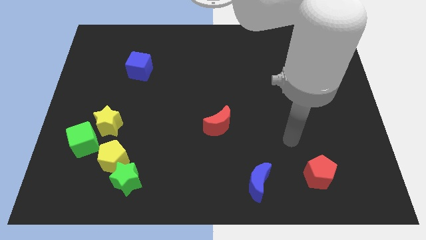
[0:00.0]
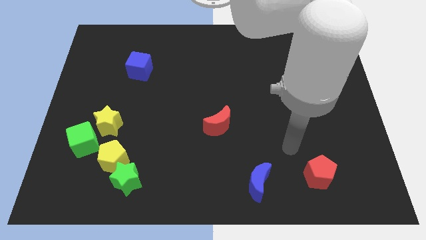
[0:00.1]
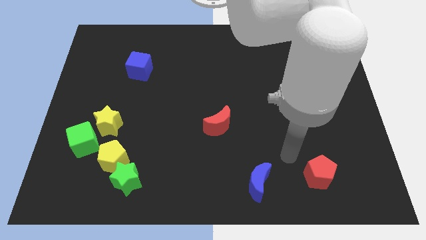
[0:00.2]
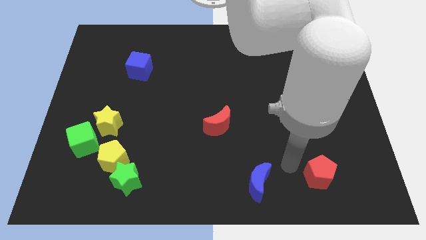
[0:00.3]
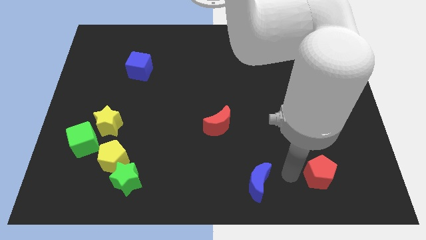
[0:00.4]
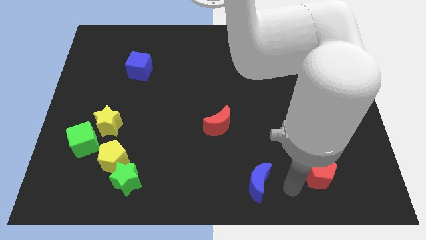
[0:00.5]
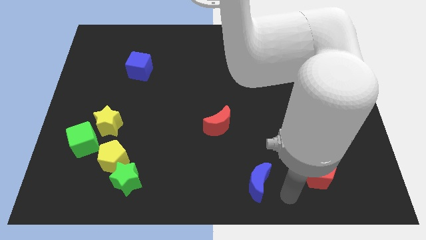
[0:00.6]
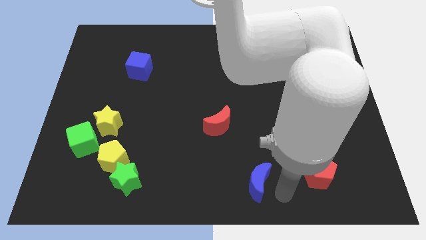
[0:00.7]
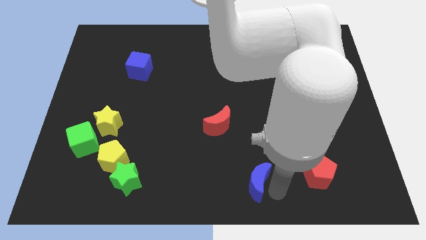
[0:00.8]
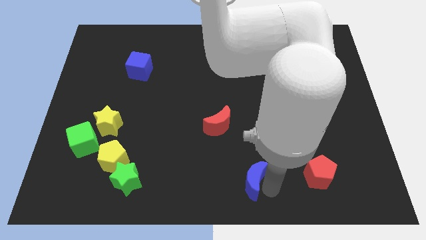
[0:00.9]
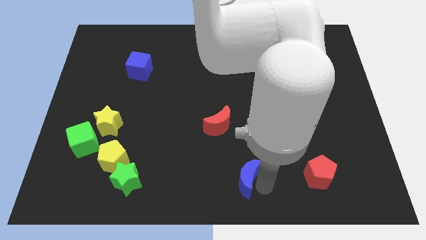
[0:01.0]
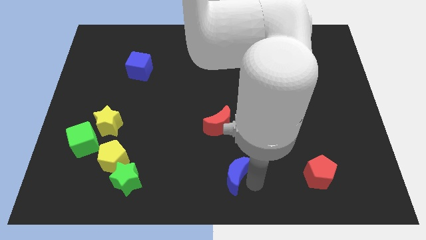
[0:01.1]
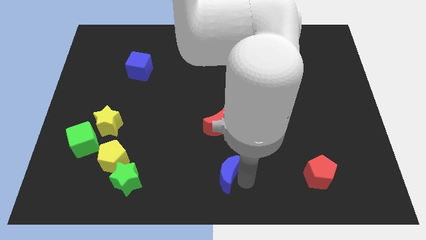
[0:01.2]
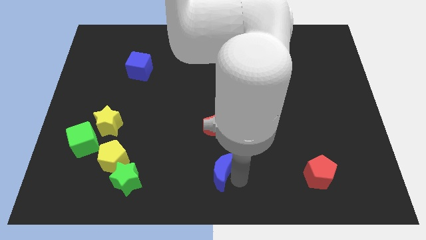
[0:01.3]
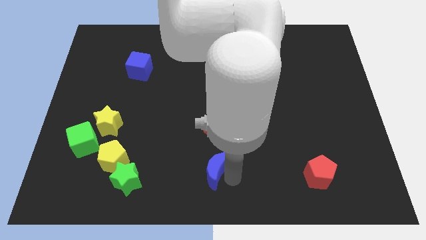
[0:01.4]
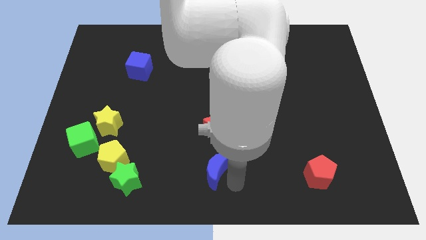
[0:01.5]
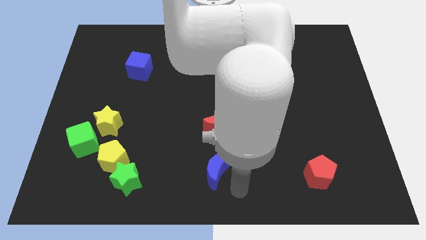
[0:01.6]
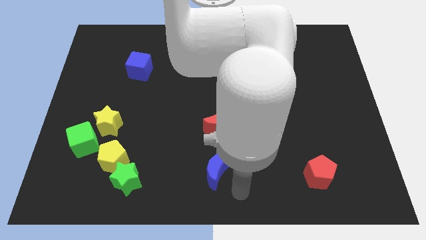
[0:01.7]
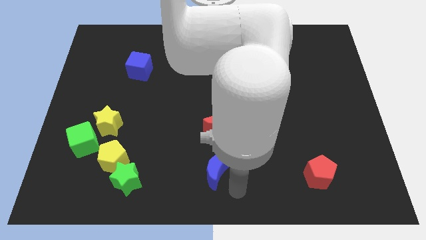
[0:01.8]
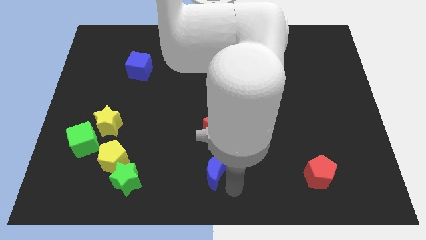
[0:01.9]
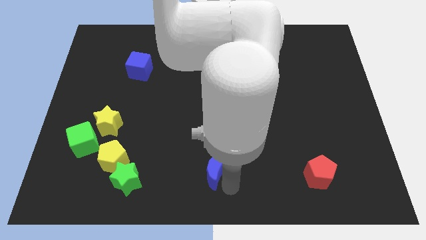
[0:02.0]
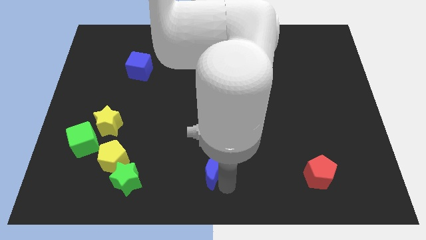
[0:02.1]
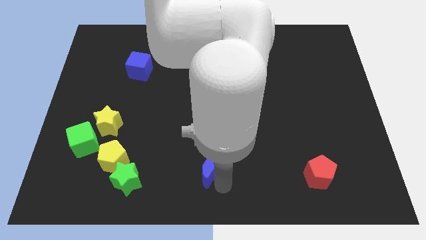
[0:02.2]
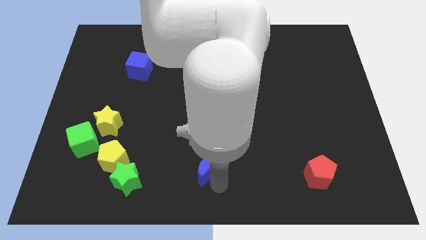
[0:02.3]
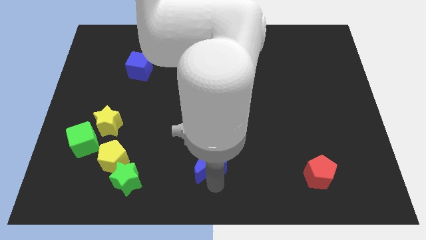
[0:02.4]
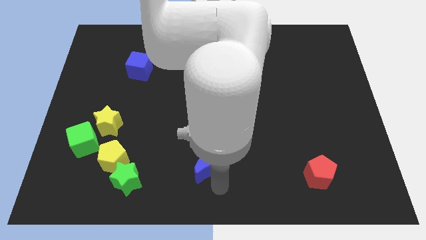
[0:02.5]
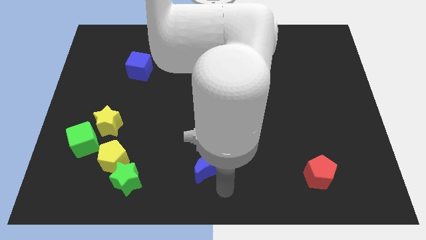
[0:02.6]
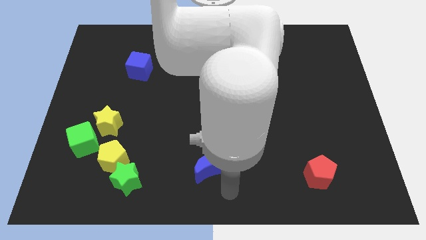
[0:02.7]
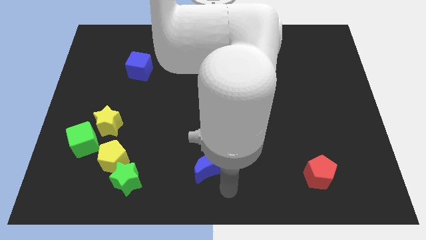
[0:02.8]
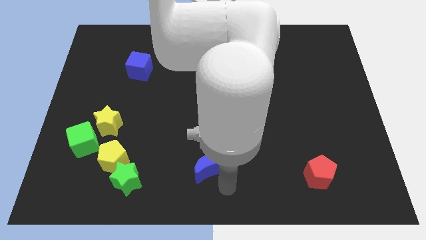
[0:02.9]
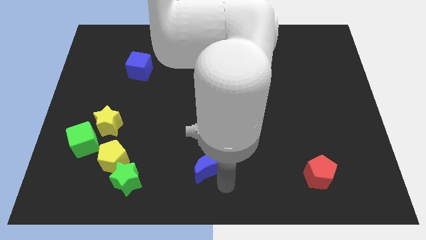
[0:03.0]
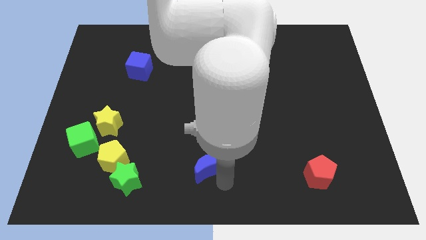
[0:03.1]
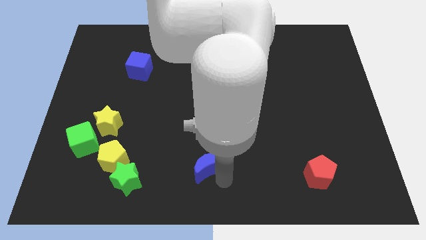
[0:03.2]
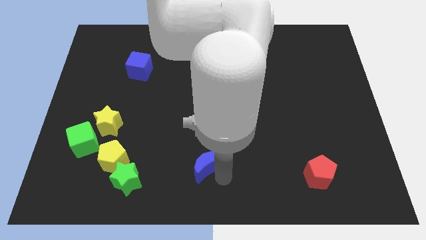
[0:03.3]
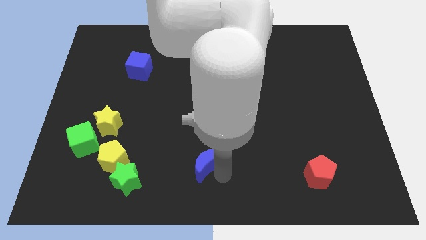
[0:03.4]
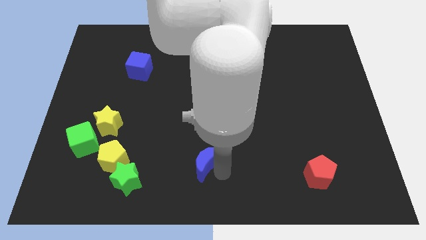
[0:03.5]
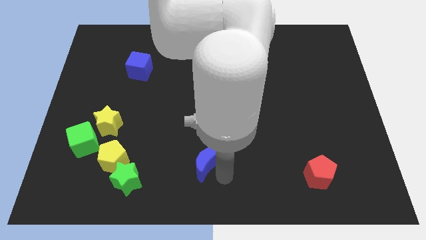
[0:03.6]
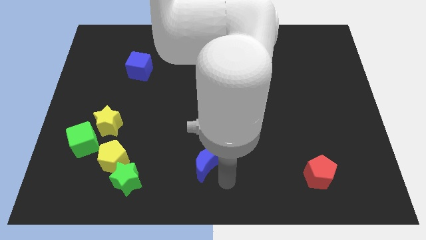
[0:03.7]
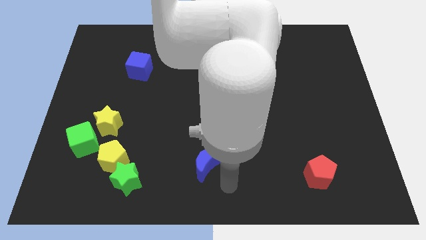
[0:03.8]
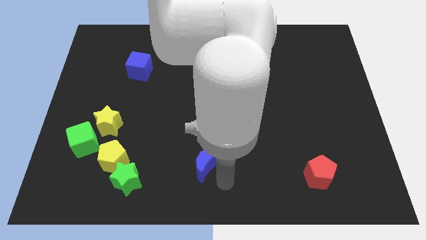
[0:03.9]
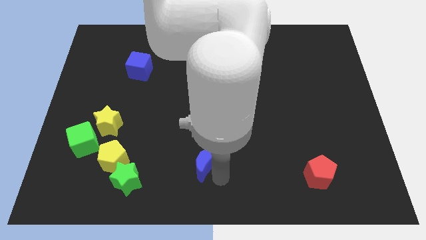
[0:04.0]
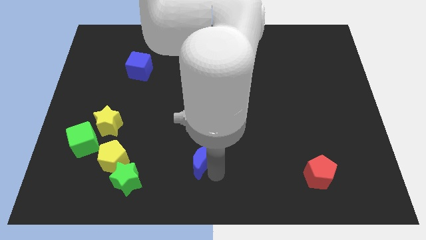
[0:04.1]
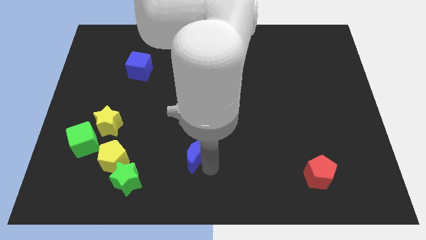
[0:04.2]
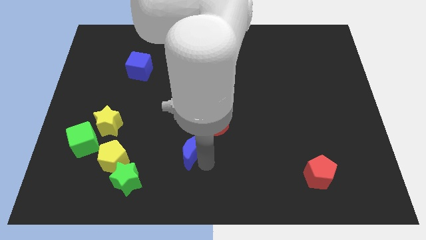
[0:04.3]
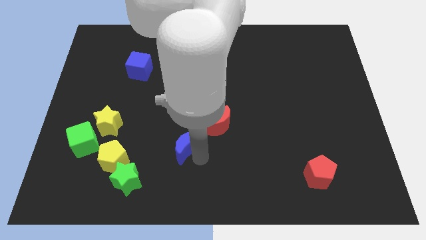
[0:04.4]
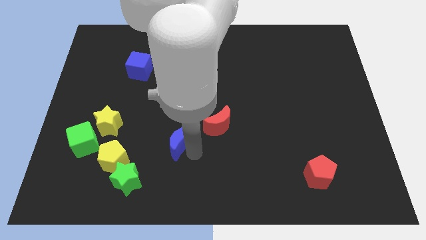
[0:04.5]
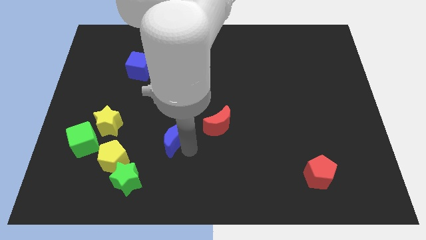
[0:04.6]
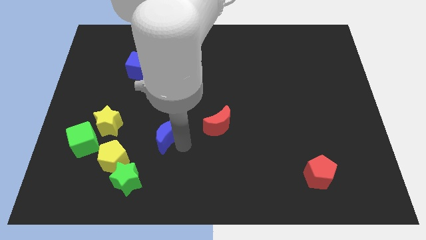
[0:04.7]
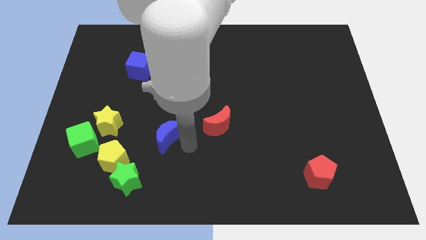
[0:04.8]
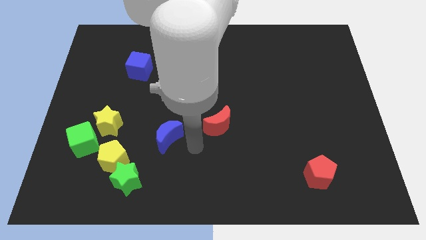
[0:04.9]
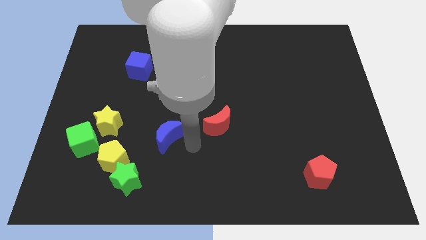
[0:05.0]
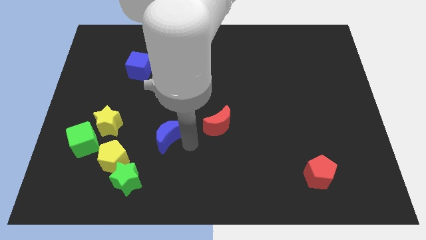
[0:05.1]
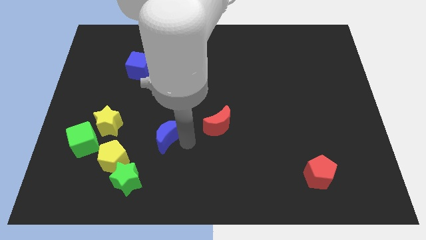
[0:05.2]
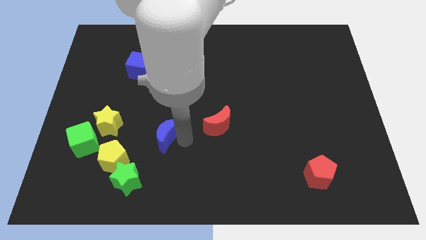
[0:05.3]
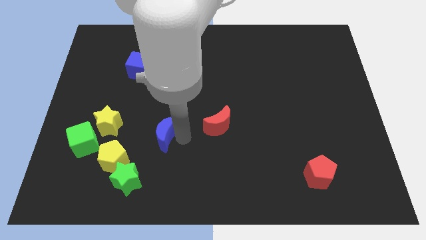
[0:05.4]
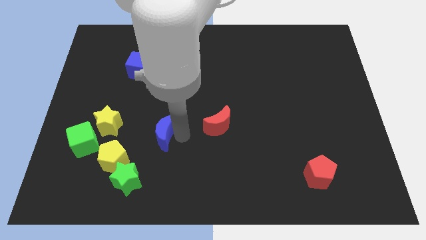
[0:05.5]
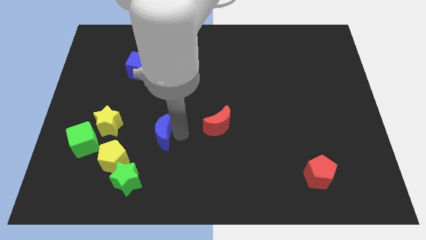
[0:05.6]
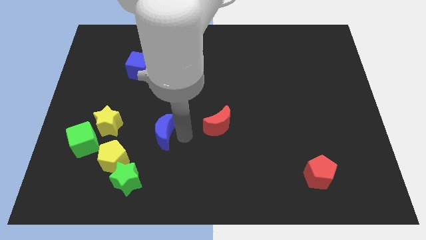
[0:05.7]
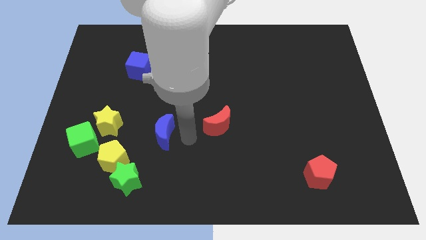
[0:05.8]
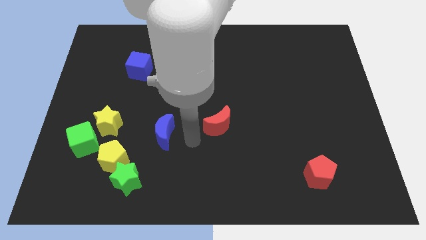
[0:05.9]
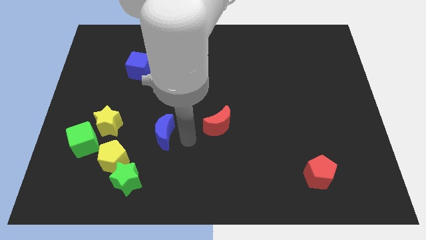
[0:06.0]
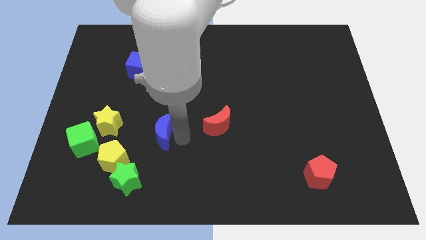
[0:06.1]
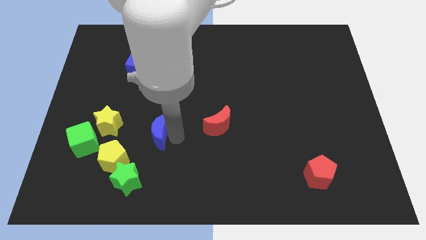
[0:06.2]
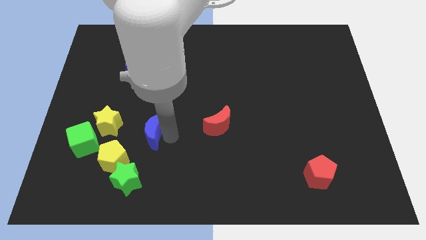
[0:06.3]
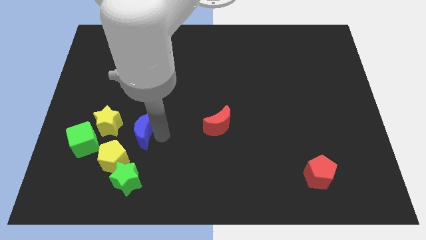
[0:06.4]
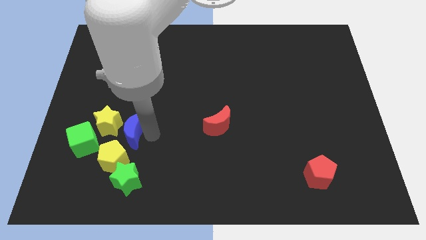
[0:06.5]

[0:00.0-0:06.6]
put the blue moon close to the yellow star

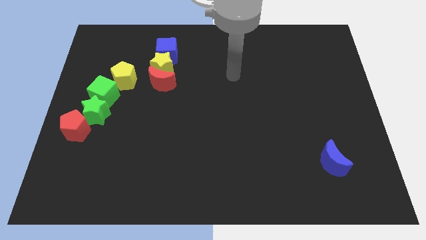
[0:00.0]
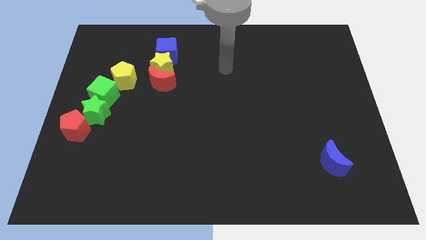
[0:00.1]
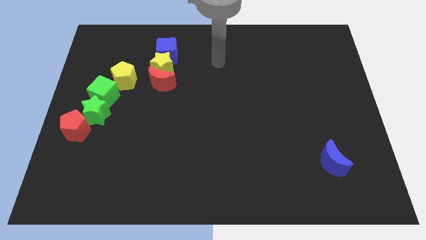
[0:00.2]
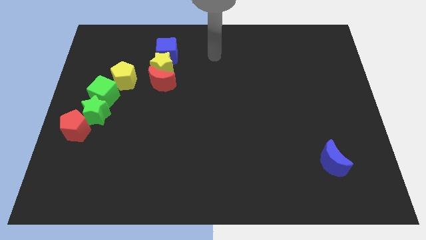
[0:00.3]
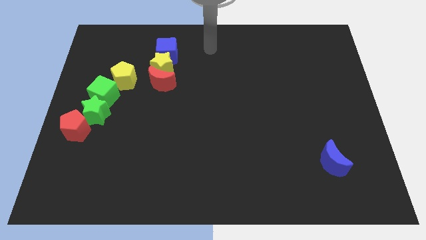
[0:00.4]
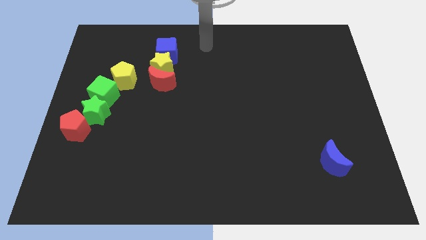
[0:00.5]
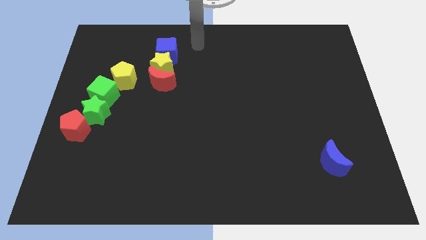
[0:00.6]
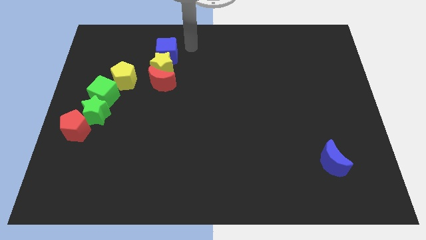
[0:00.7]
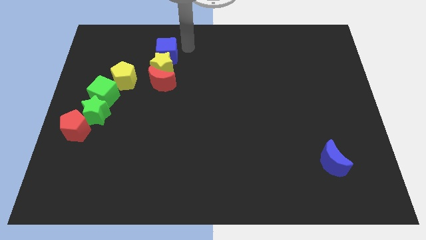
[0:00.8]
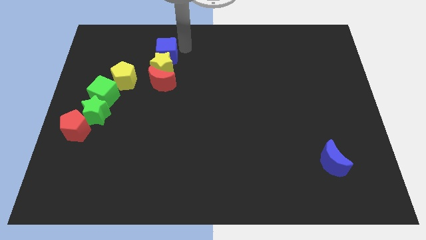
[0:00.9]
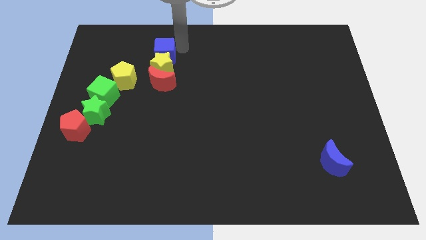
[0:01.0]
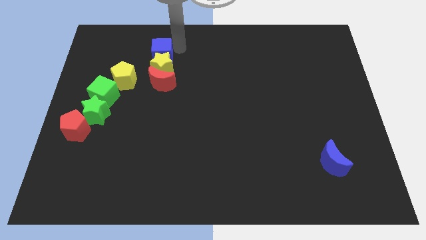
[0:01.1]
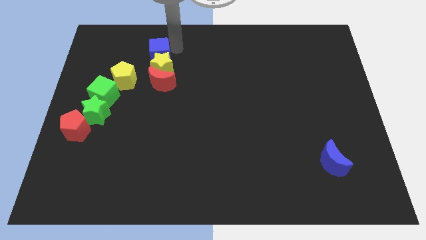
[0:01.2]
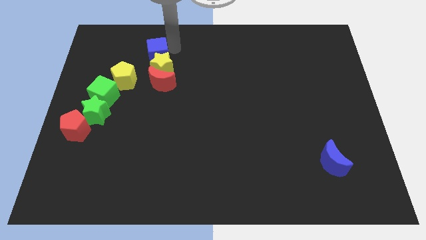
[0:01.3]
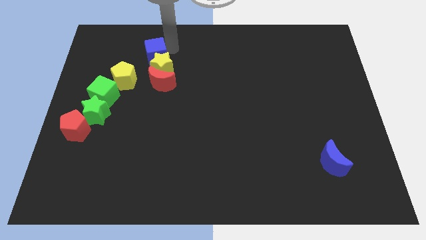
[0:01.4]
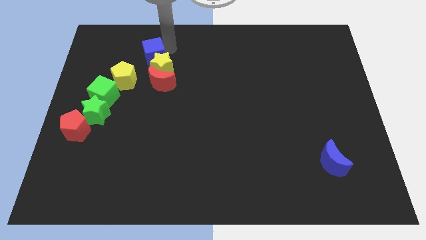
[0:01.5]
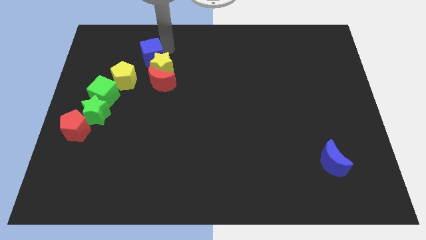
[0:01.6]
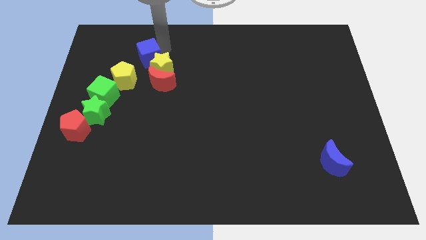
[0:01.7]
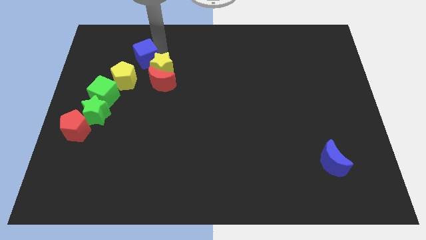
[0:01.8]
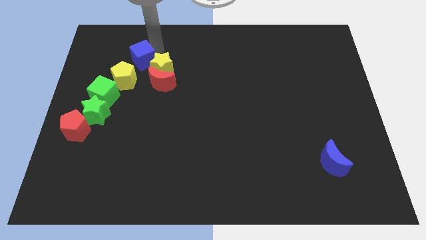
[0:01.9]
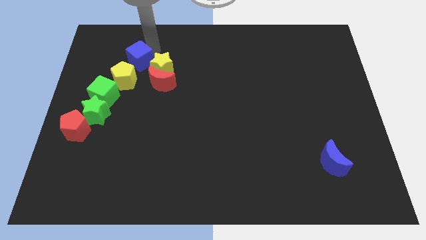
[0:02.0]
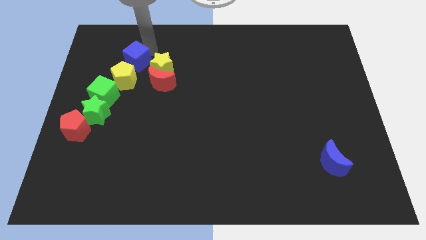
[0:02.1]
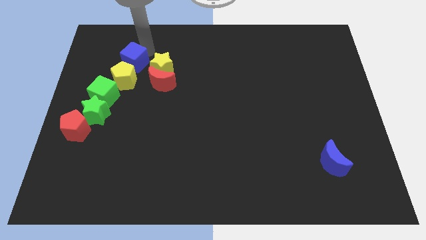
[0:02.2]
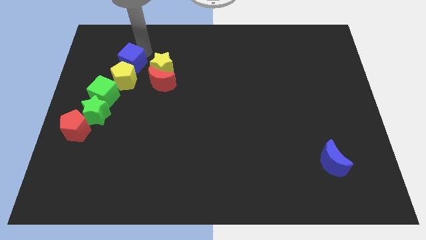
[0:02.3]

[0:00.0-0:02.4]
push the blue cube to the yellow pentagon
